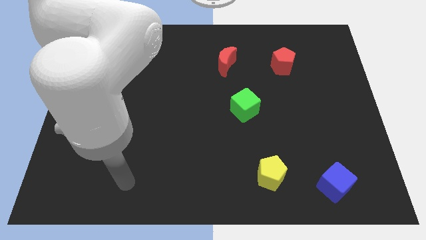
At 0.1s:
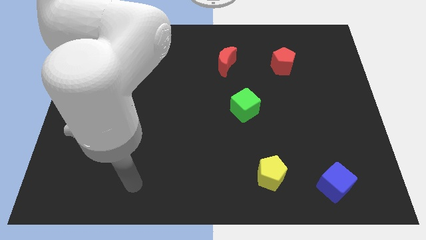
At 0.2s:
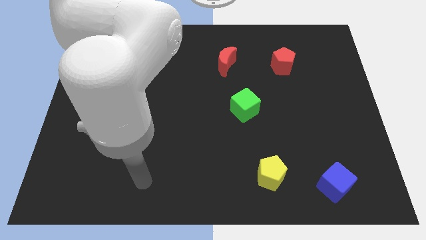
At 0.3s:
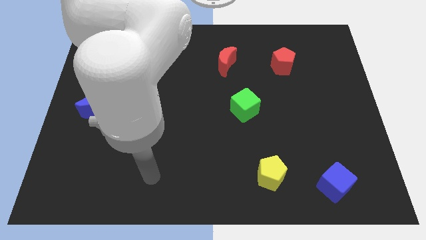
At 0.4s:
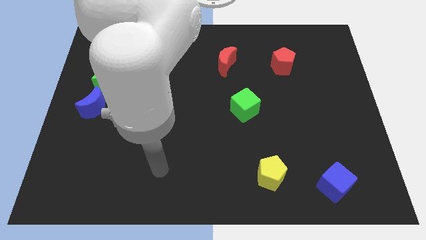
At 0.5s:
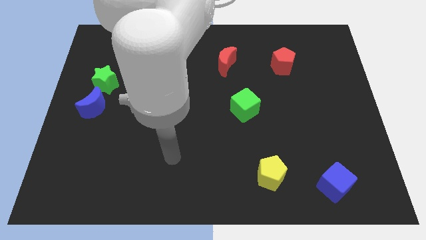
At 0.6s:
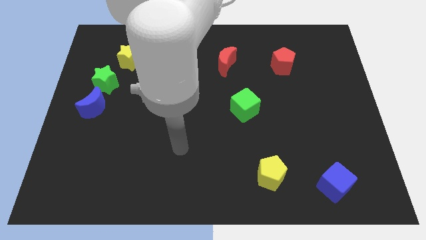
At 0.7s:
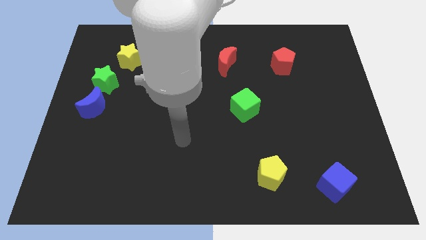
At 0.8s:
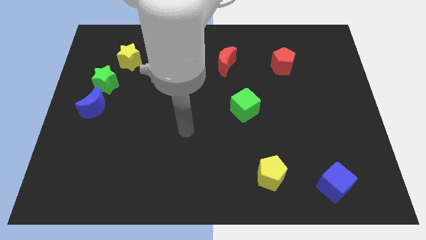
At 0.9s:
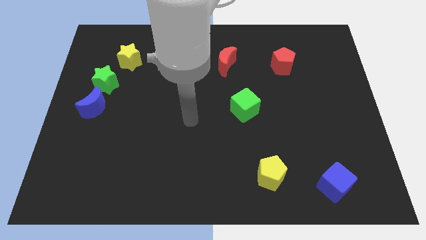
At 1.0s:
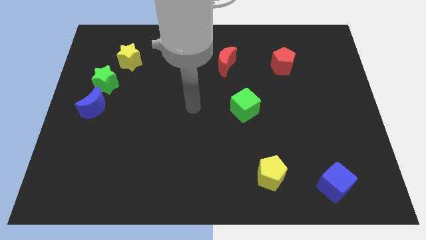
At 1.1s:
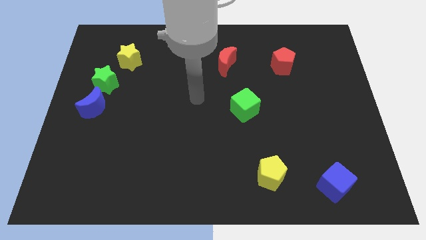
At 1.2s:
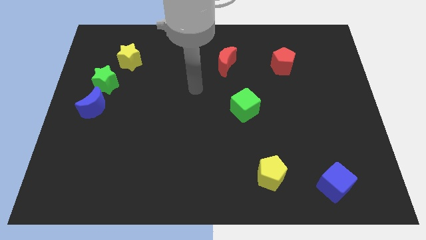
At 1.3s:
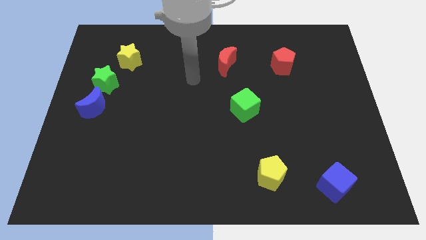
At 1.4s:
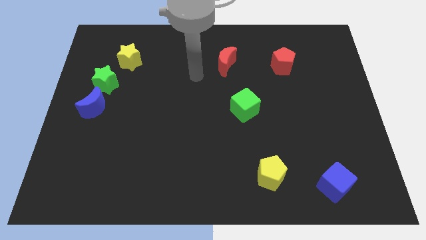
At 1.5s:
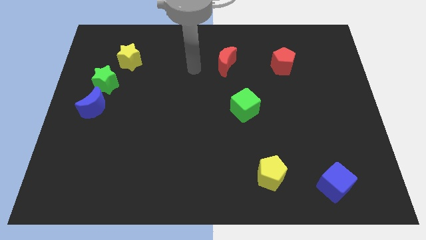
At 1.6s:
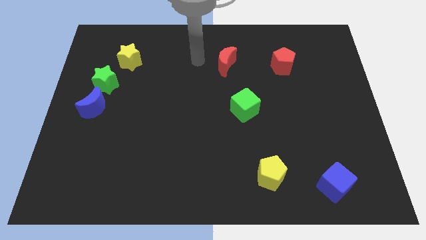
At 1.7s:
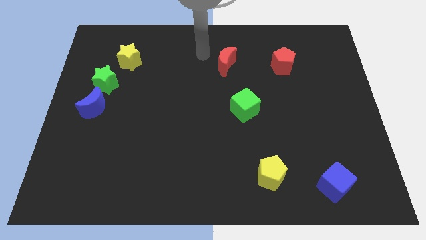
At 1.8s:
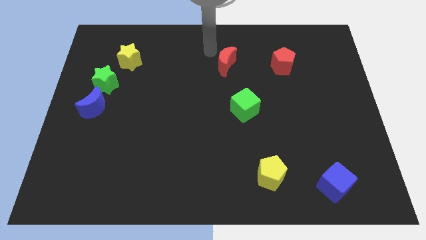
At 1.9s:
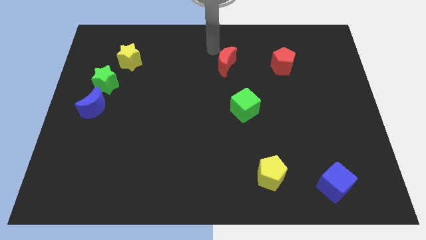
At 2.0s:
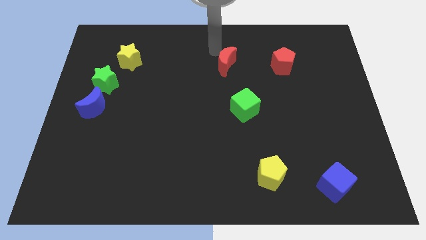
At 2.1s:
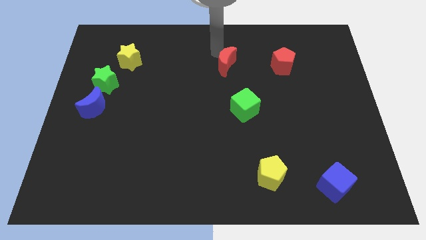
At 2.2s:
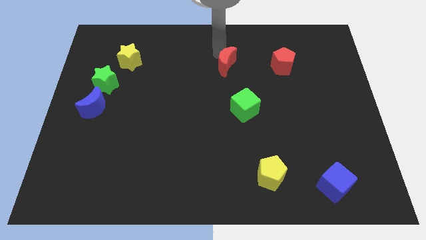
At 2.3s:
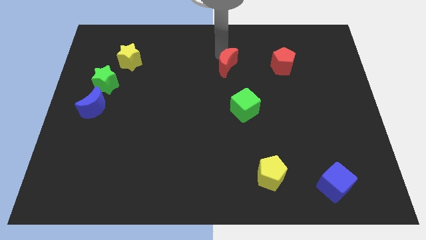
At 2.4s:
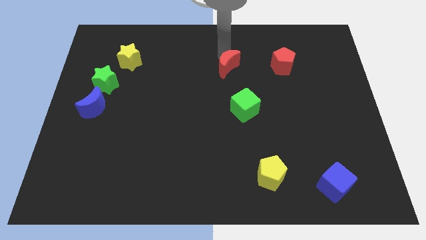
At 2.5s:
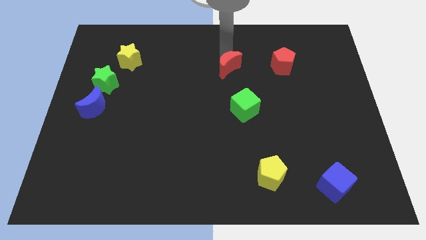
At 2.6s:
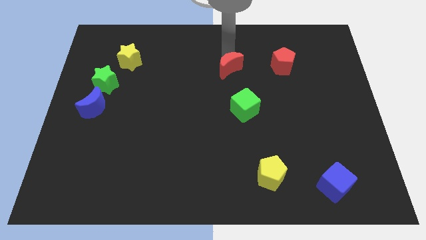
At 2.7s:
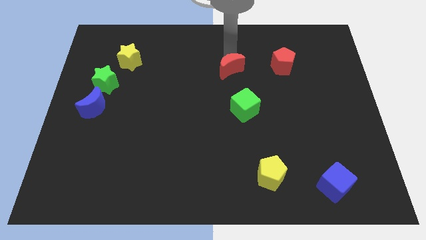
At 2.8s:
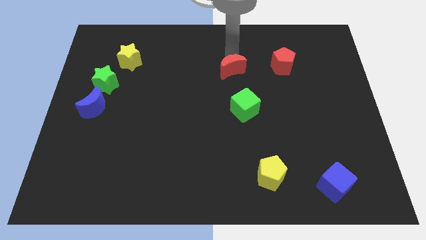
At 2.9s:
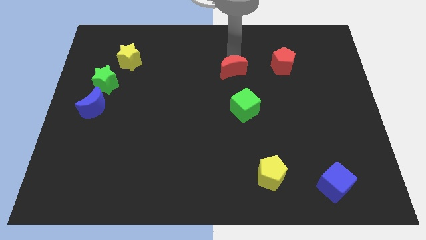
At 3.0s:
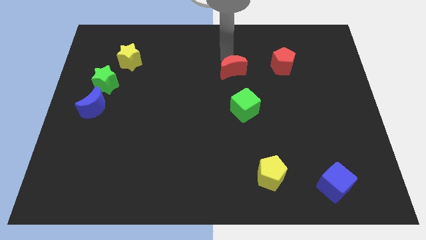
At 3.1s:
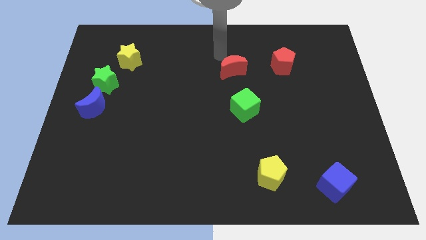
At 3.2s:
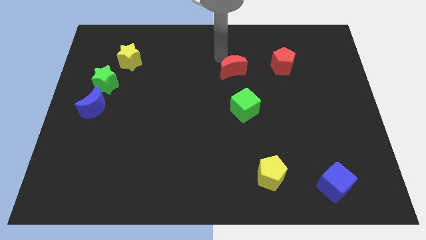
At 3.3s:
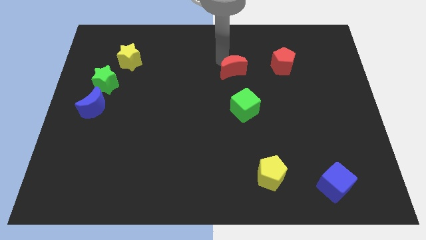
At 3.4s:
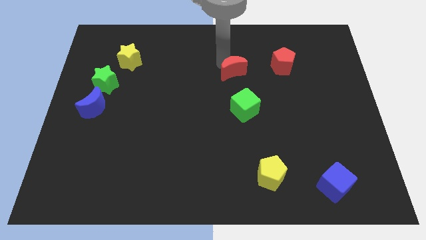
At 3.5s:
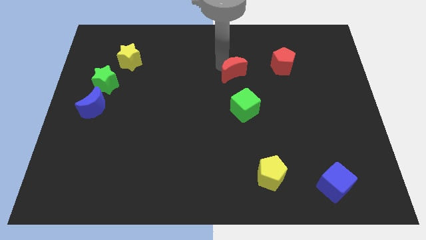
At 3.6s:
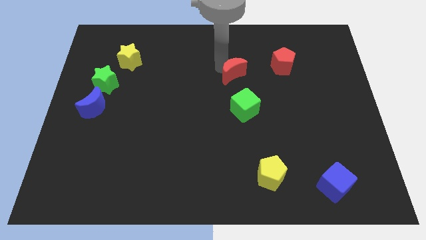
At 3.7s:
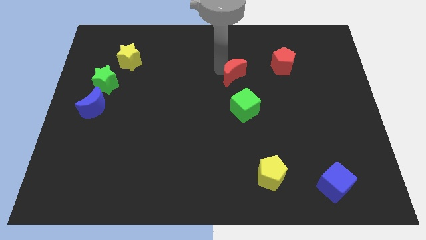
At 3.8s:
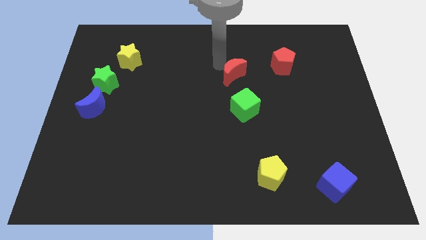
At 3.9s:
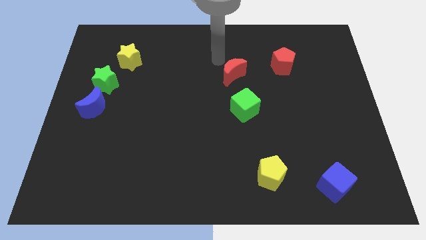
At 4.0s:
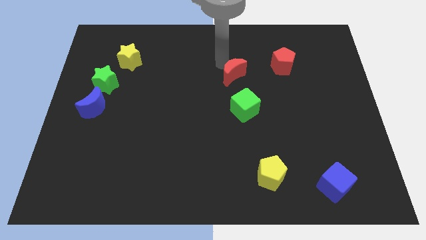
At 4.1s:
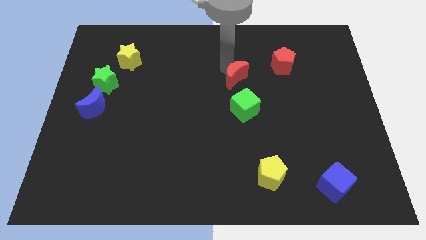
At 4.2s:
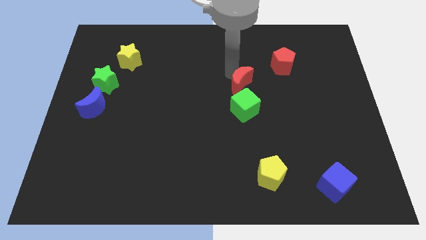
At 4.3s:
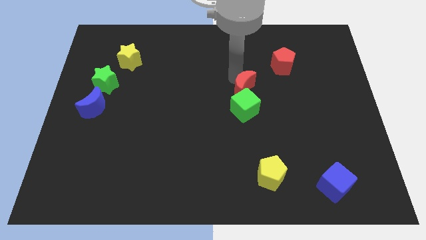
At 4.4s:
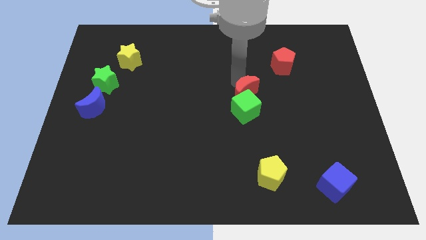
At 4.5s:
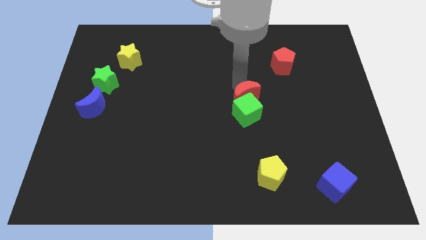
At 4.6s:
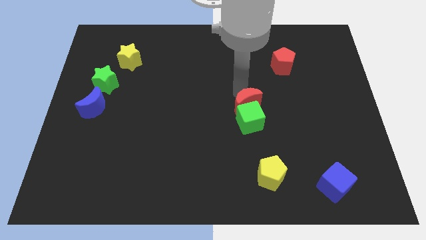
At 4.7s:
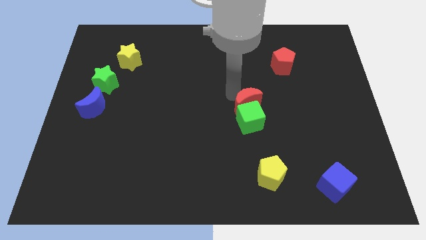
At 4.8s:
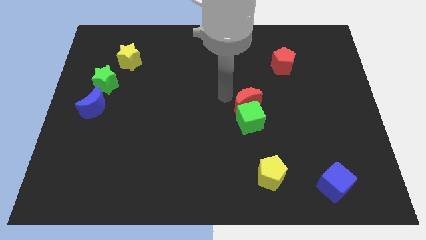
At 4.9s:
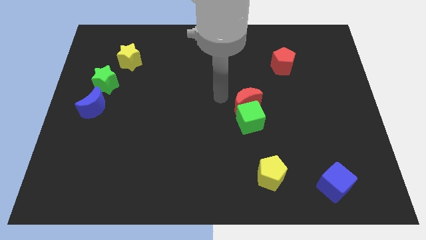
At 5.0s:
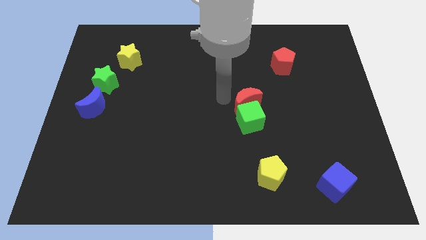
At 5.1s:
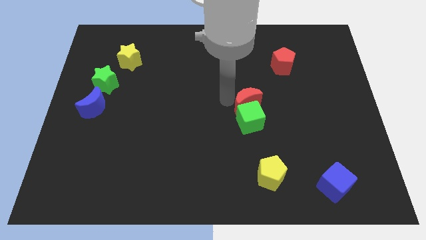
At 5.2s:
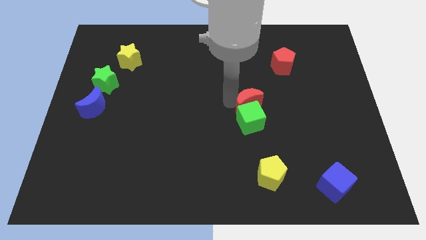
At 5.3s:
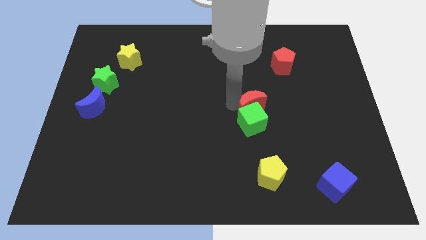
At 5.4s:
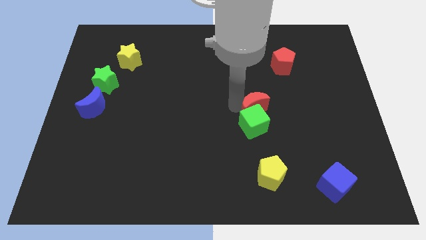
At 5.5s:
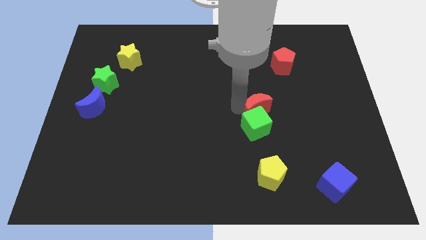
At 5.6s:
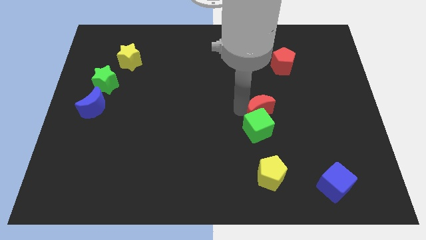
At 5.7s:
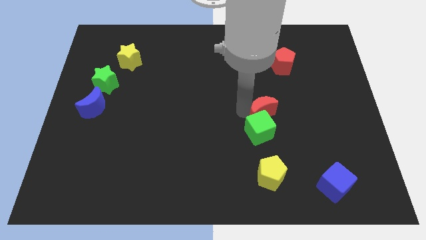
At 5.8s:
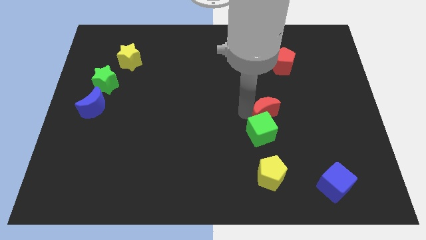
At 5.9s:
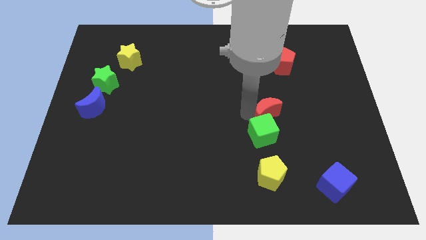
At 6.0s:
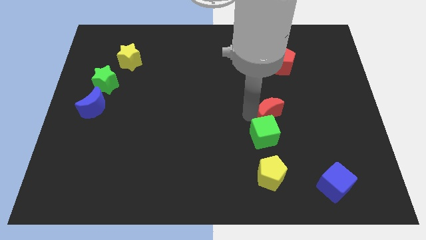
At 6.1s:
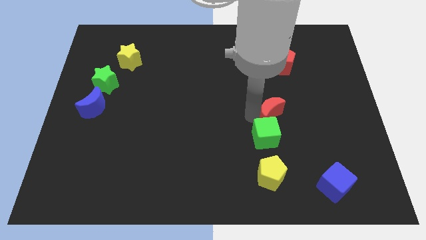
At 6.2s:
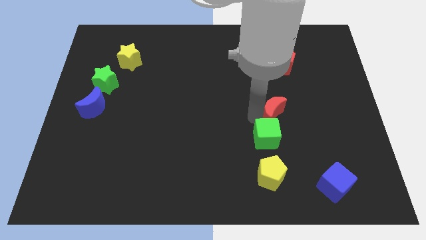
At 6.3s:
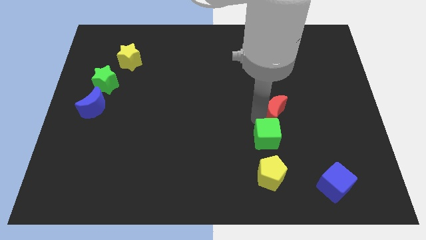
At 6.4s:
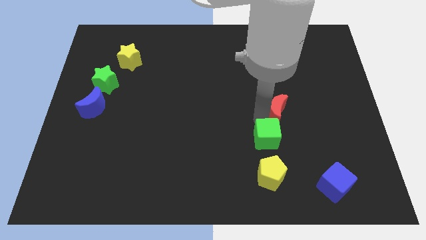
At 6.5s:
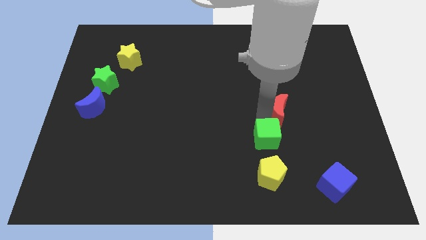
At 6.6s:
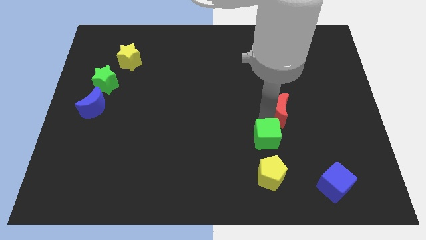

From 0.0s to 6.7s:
slide the red moon downwards and to the right diagonally

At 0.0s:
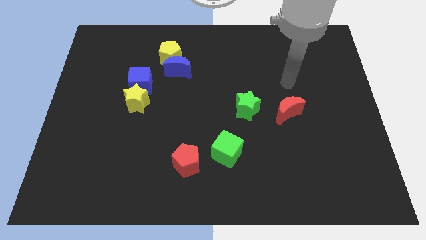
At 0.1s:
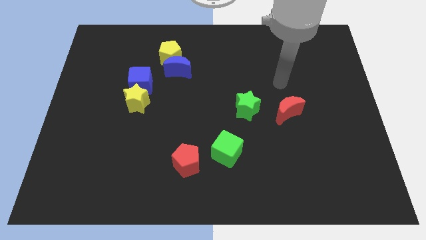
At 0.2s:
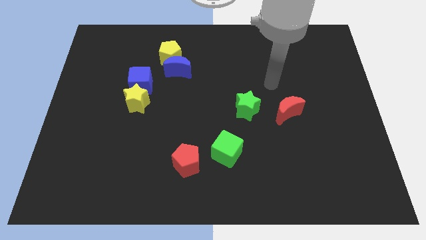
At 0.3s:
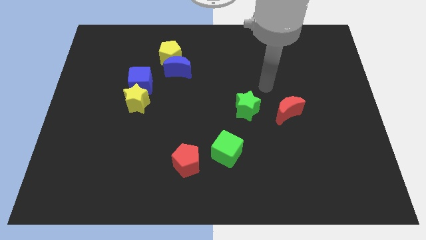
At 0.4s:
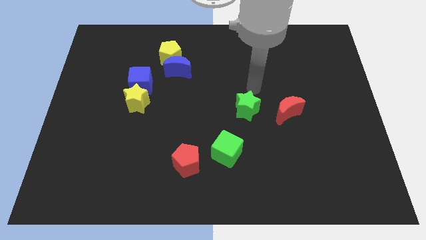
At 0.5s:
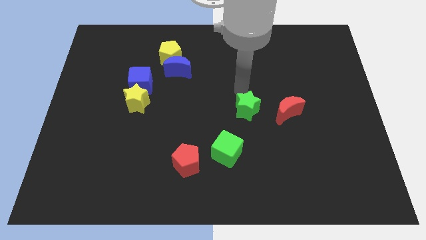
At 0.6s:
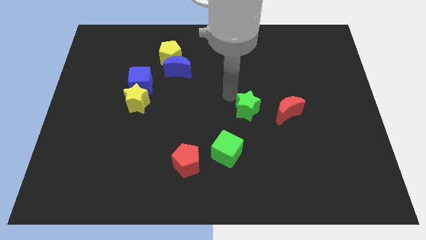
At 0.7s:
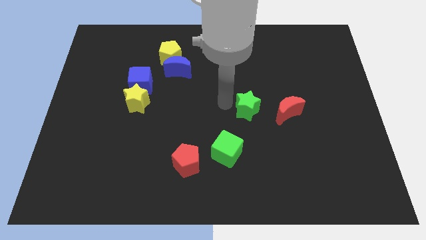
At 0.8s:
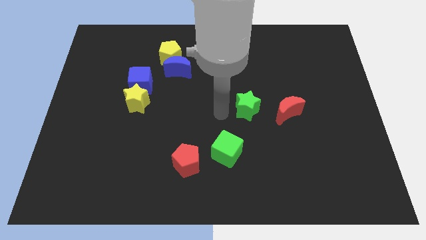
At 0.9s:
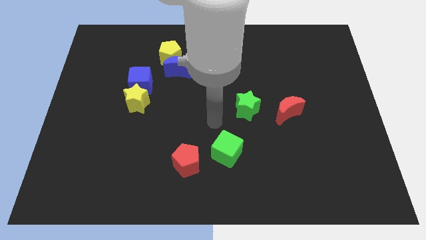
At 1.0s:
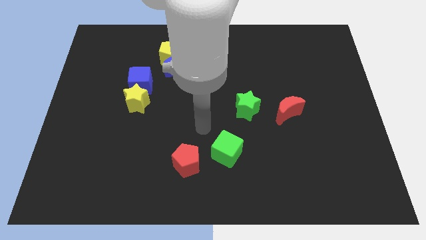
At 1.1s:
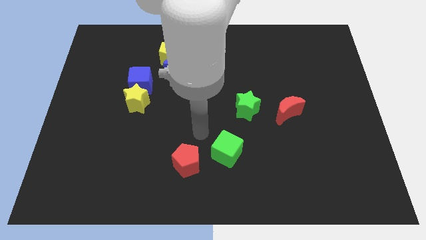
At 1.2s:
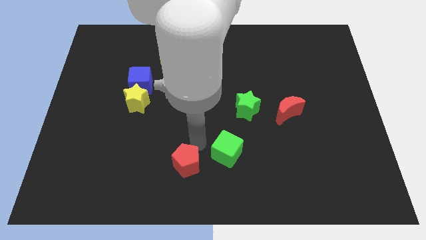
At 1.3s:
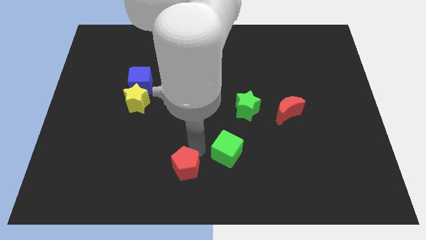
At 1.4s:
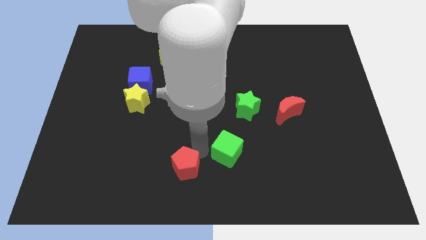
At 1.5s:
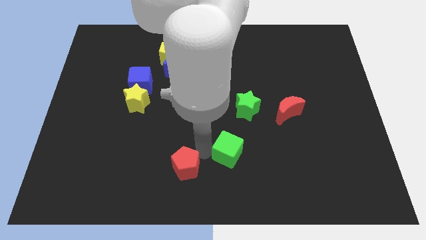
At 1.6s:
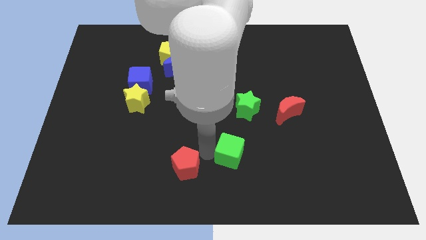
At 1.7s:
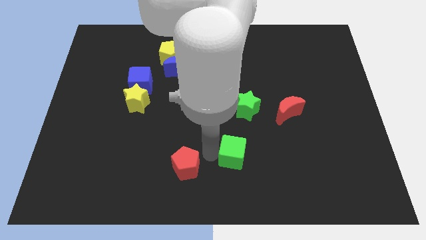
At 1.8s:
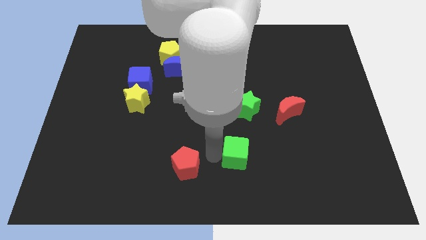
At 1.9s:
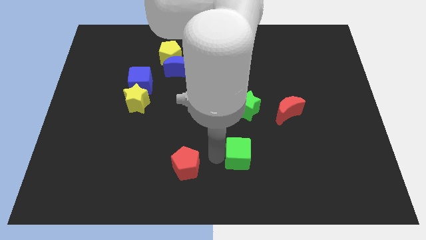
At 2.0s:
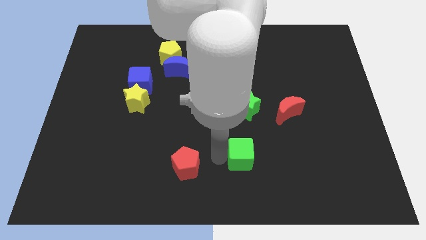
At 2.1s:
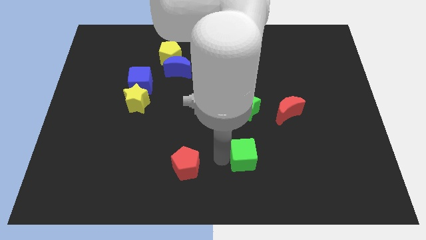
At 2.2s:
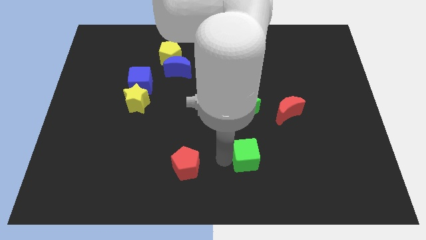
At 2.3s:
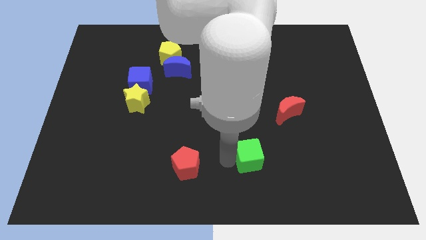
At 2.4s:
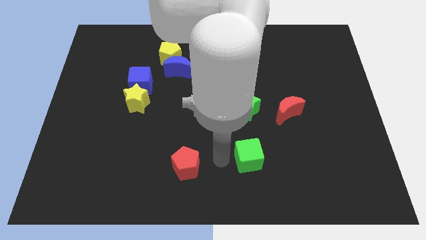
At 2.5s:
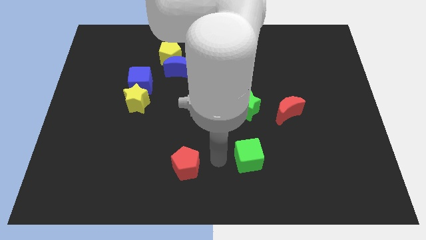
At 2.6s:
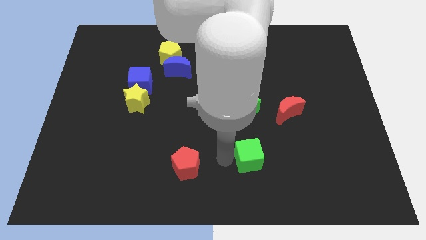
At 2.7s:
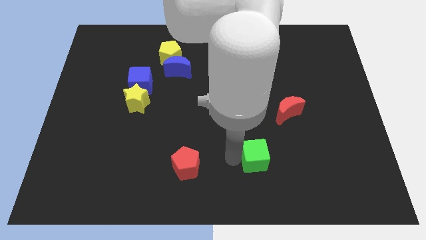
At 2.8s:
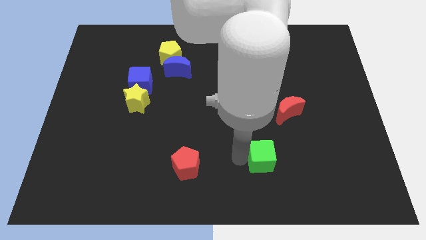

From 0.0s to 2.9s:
push the green cube right a little bit
